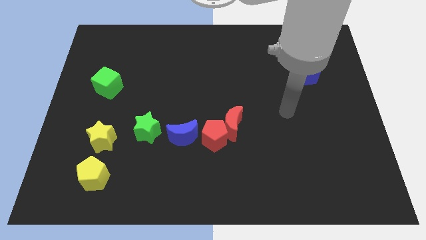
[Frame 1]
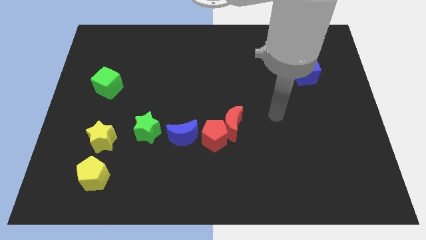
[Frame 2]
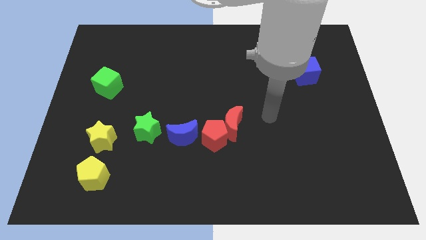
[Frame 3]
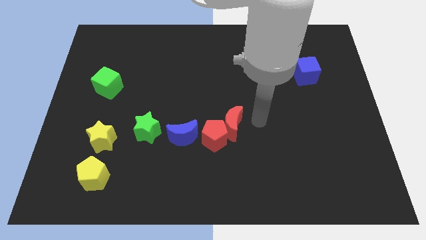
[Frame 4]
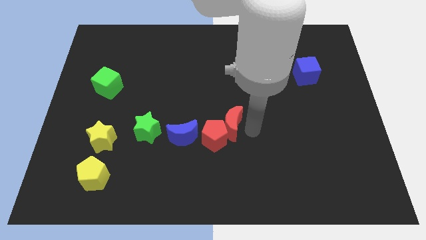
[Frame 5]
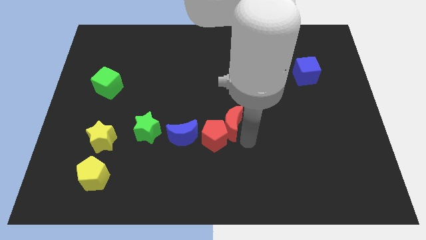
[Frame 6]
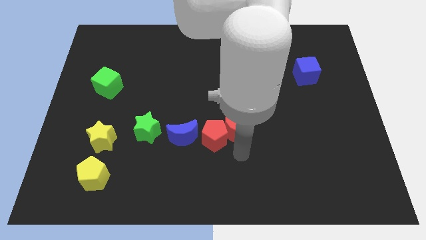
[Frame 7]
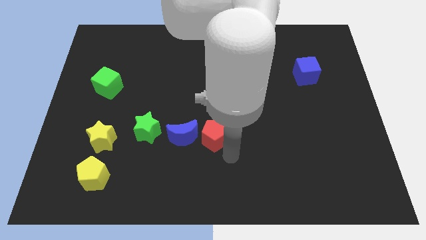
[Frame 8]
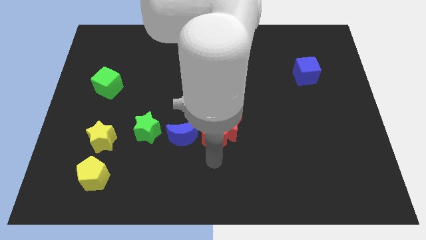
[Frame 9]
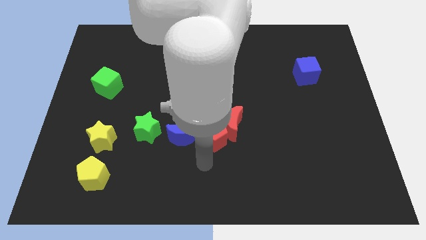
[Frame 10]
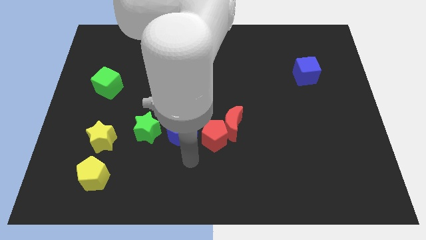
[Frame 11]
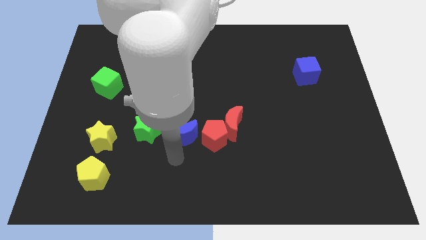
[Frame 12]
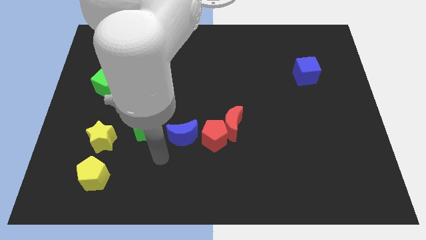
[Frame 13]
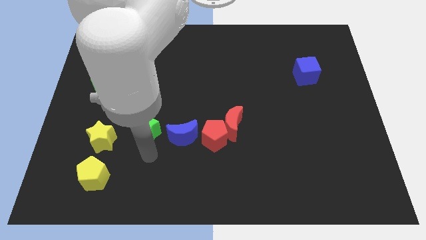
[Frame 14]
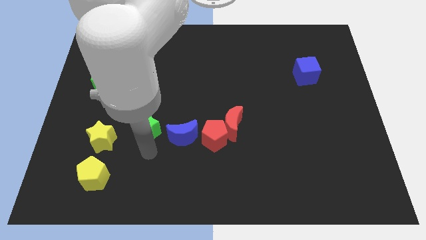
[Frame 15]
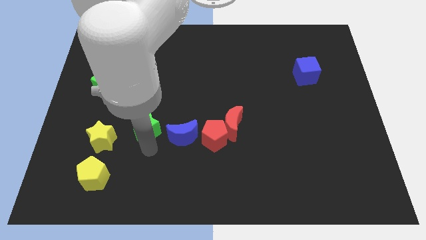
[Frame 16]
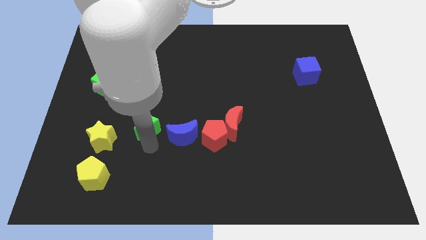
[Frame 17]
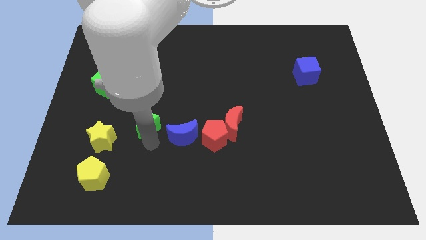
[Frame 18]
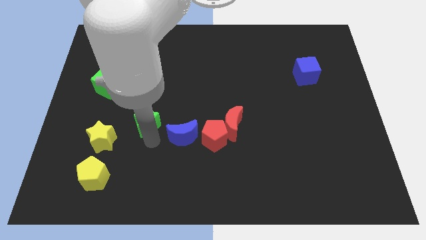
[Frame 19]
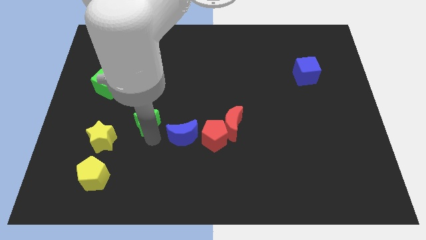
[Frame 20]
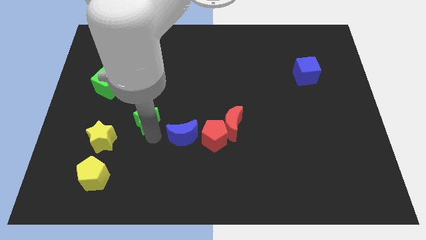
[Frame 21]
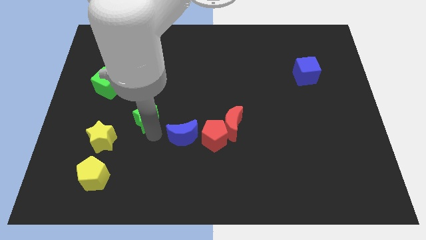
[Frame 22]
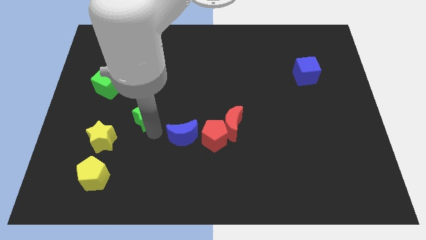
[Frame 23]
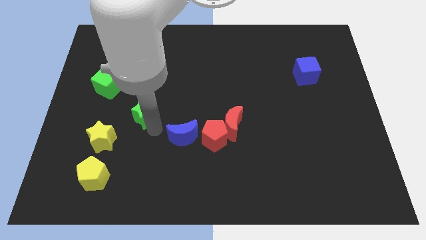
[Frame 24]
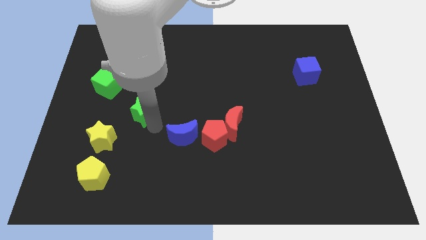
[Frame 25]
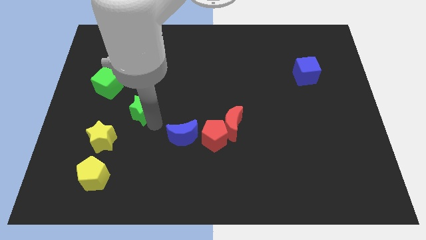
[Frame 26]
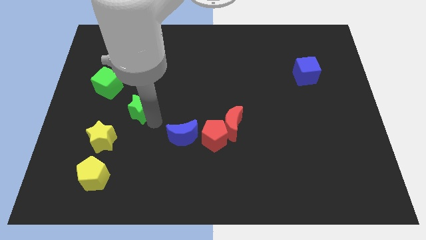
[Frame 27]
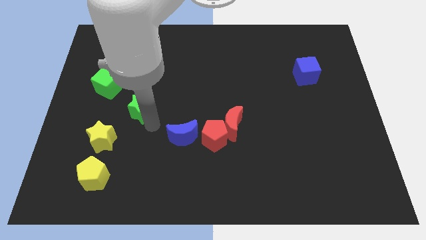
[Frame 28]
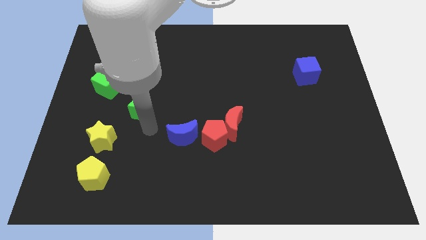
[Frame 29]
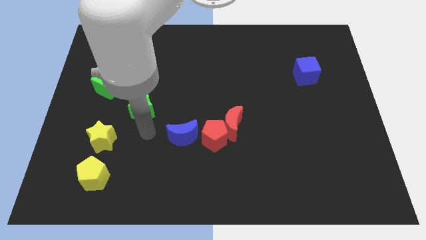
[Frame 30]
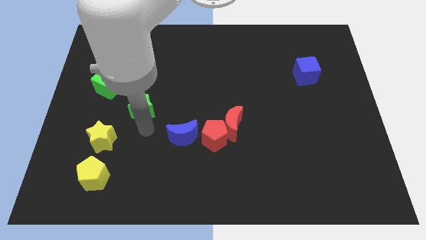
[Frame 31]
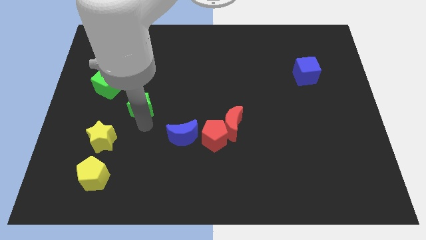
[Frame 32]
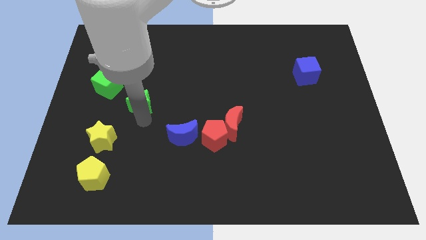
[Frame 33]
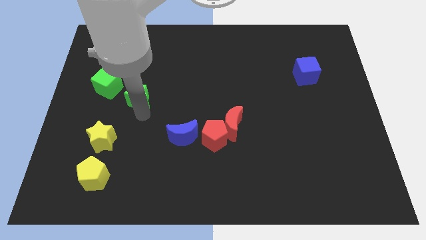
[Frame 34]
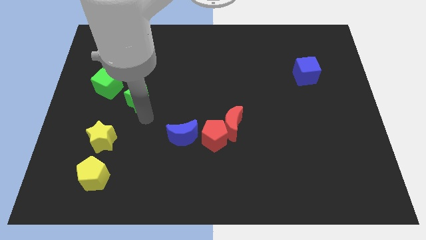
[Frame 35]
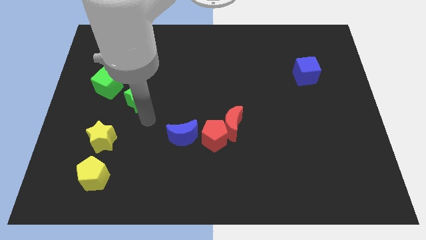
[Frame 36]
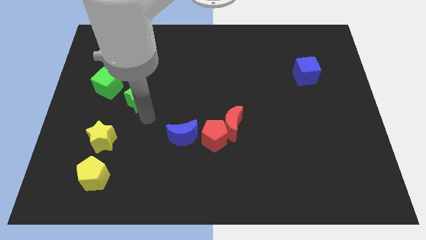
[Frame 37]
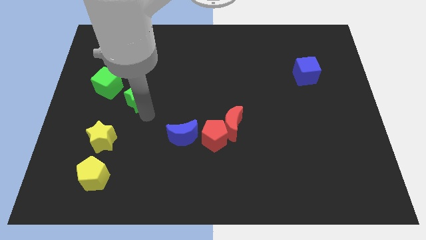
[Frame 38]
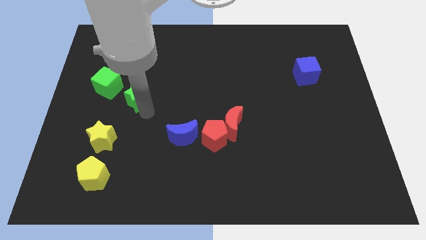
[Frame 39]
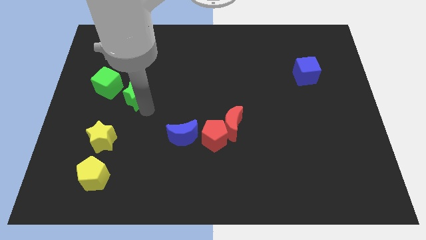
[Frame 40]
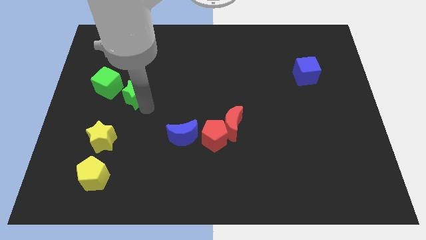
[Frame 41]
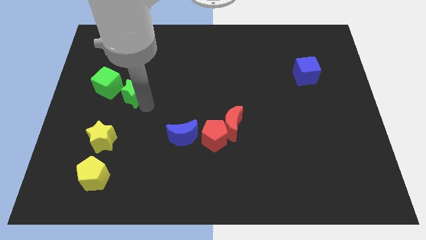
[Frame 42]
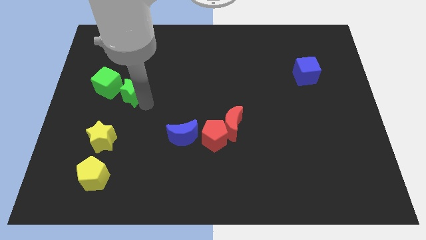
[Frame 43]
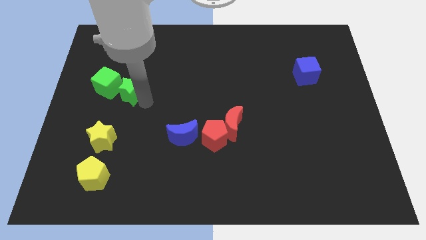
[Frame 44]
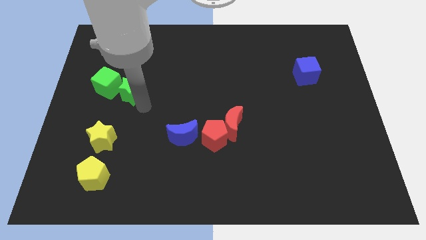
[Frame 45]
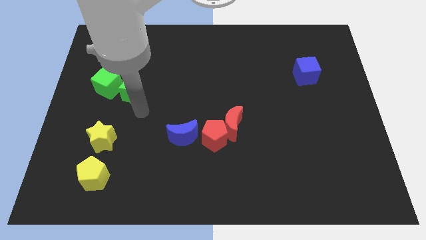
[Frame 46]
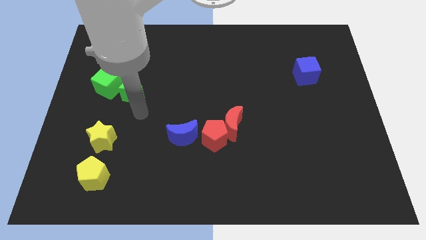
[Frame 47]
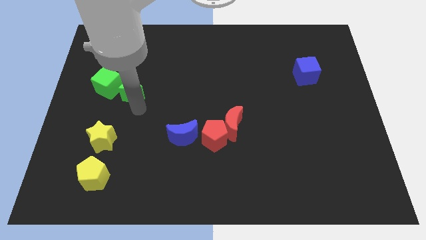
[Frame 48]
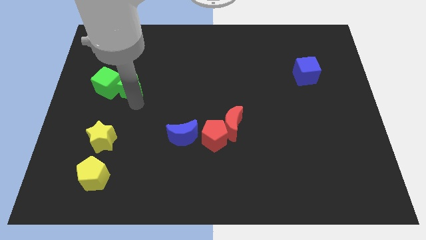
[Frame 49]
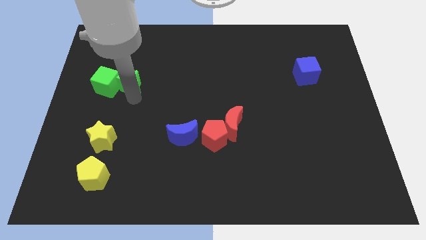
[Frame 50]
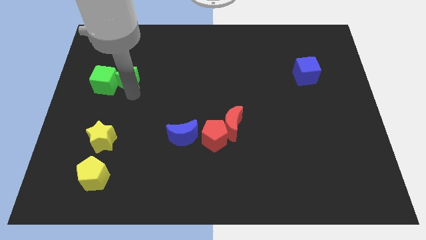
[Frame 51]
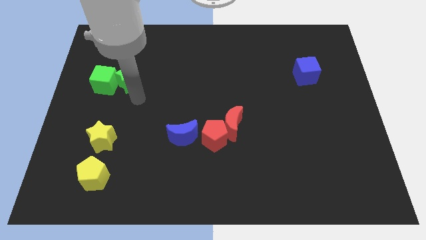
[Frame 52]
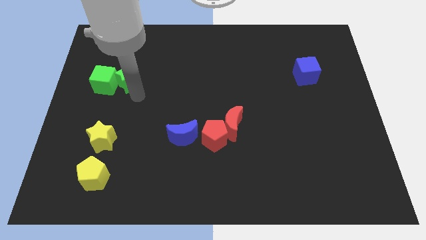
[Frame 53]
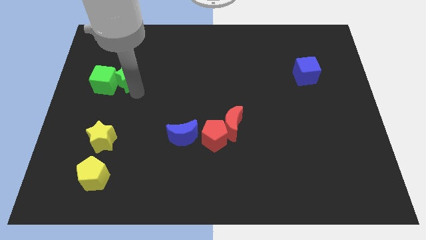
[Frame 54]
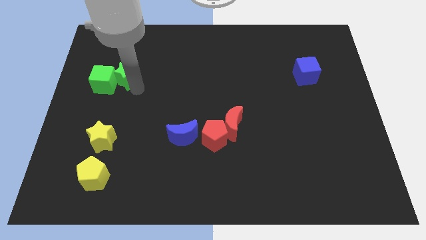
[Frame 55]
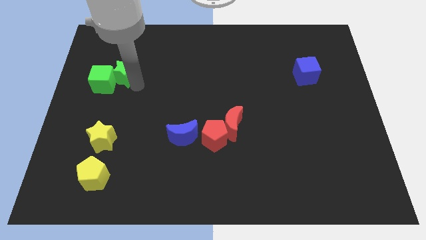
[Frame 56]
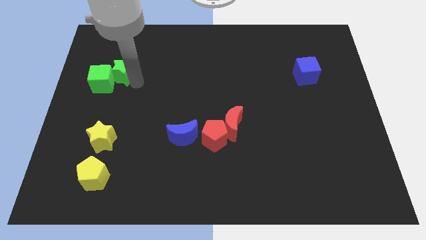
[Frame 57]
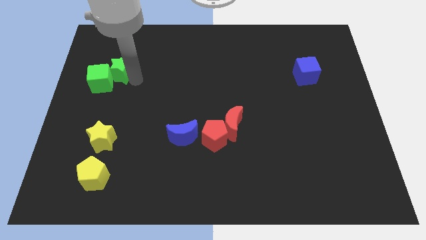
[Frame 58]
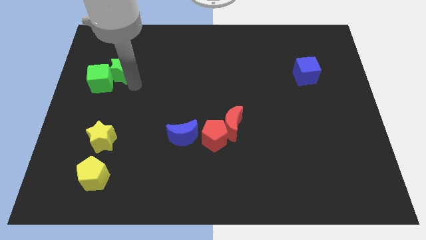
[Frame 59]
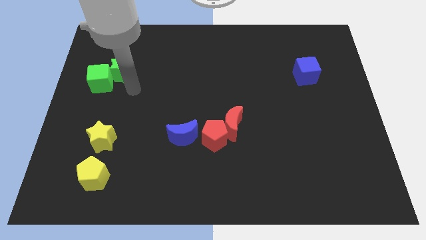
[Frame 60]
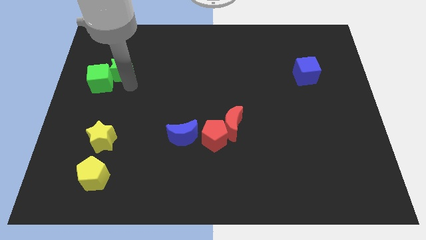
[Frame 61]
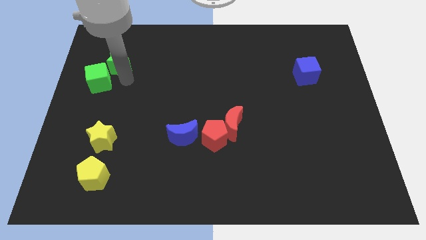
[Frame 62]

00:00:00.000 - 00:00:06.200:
move the green star to the top of the green cube

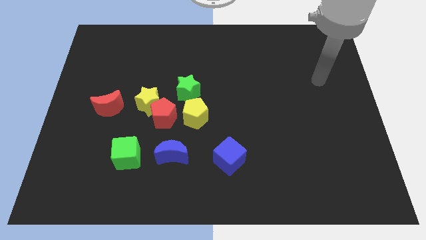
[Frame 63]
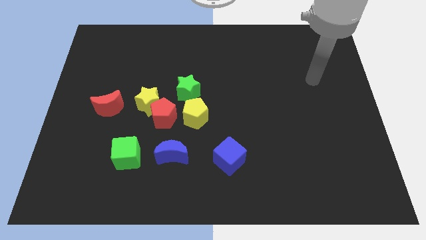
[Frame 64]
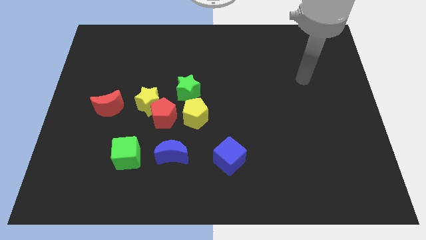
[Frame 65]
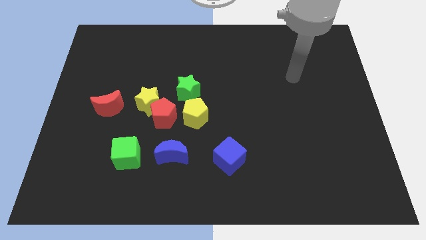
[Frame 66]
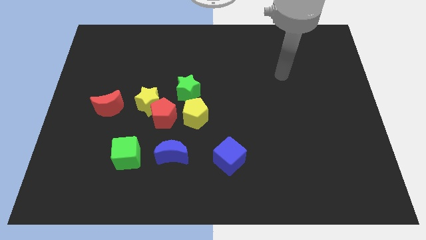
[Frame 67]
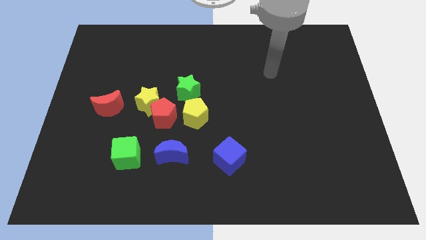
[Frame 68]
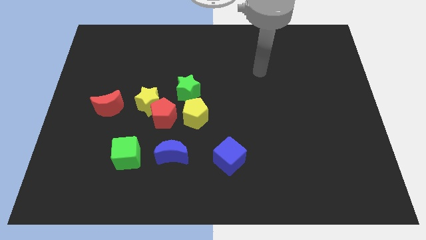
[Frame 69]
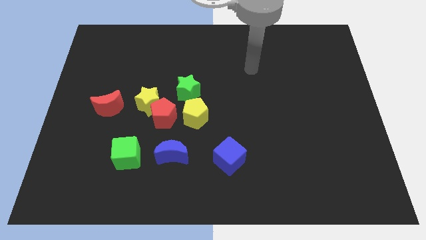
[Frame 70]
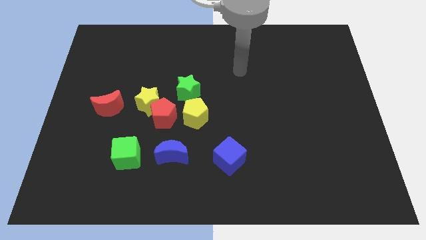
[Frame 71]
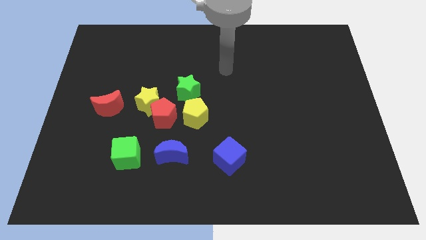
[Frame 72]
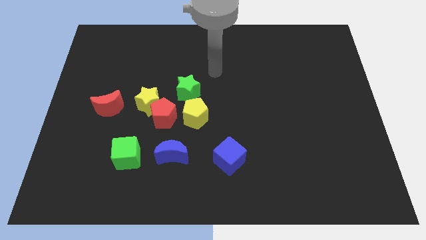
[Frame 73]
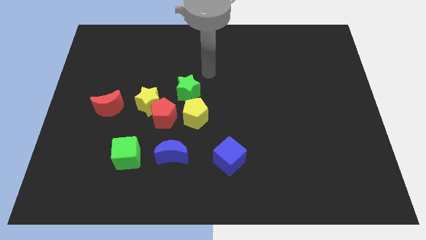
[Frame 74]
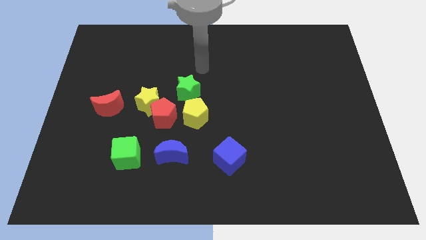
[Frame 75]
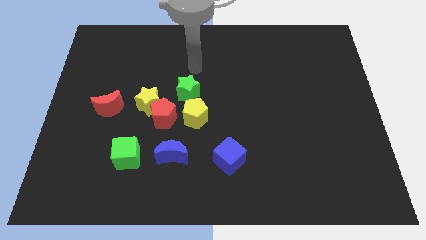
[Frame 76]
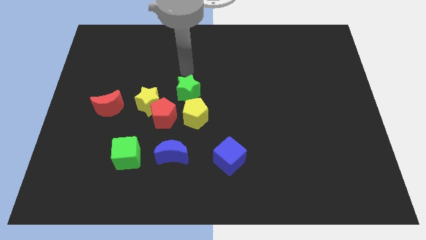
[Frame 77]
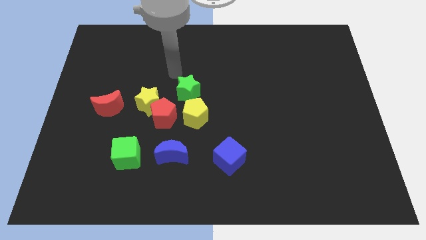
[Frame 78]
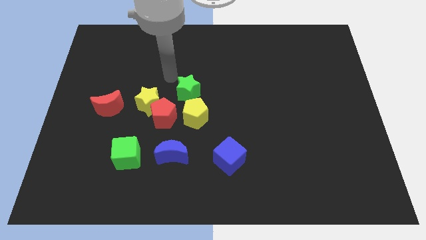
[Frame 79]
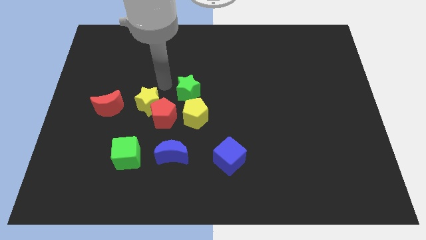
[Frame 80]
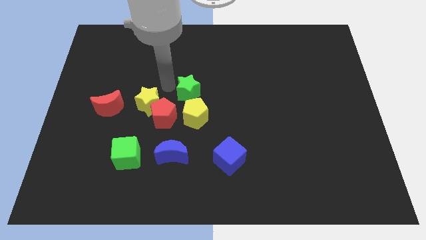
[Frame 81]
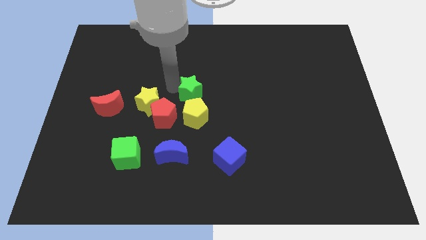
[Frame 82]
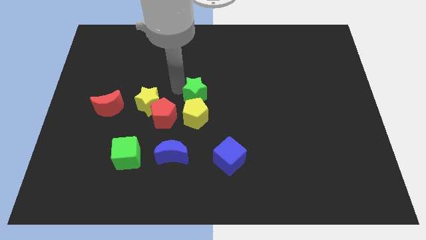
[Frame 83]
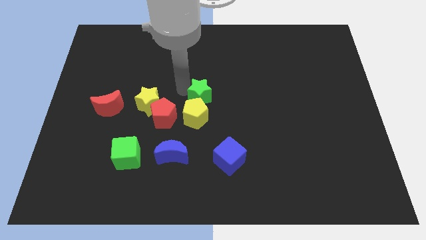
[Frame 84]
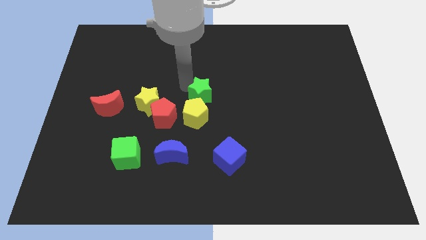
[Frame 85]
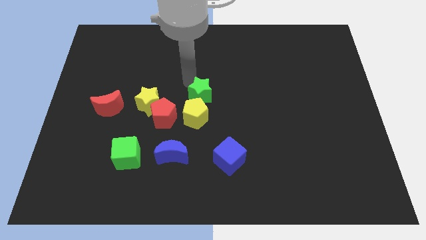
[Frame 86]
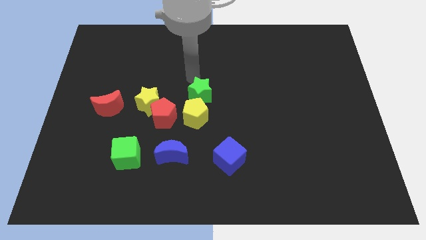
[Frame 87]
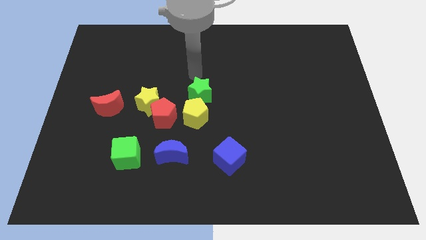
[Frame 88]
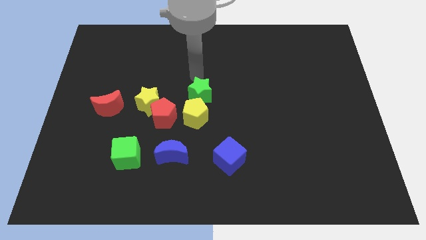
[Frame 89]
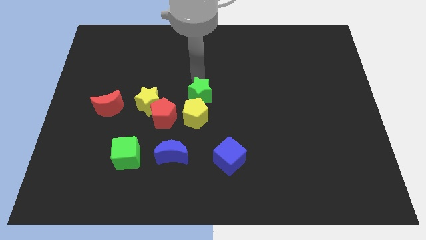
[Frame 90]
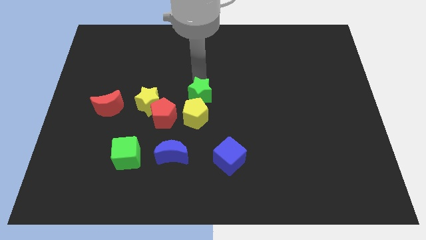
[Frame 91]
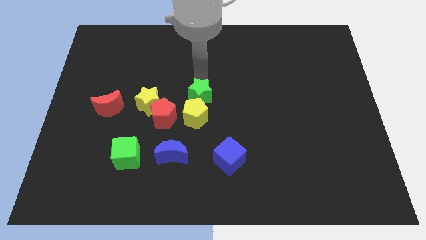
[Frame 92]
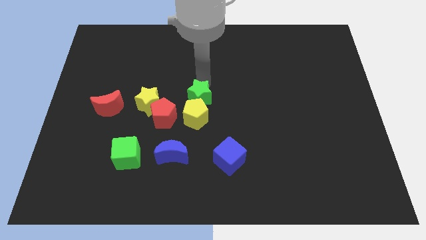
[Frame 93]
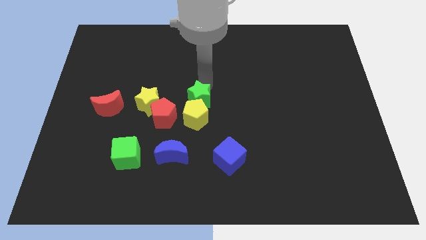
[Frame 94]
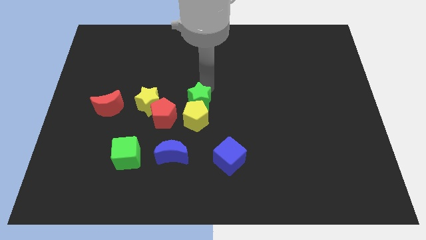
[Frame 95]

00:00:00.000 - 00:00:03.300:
push the green star to the right of the red pentagon
